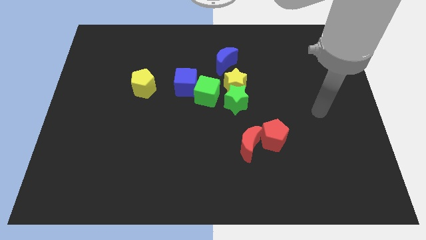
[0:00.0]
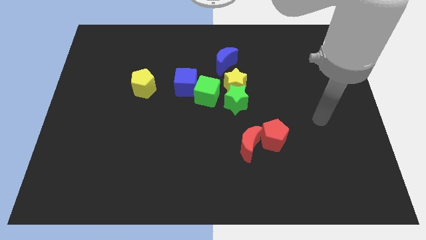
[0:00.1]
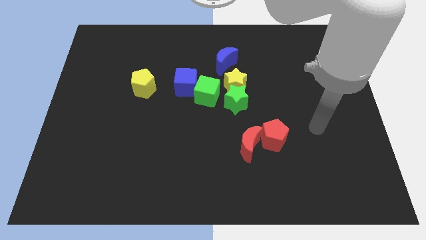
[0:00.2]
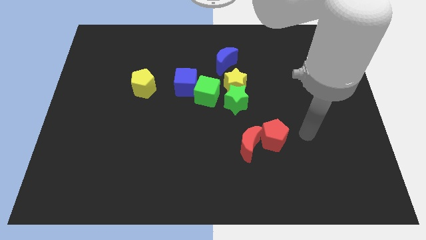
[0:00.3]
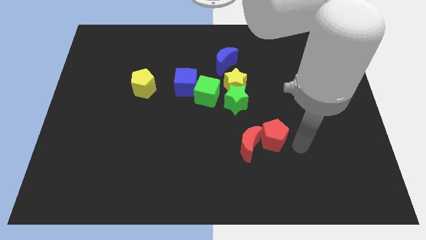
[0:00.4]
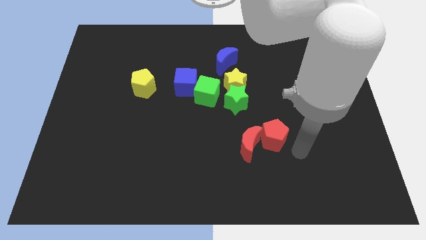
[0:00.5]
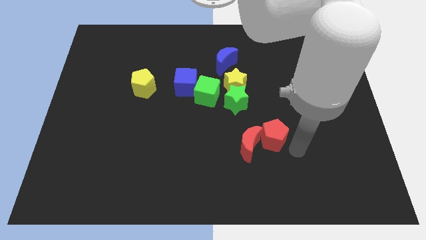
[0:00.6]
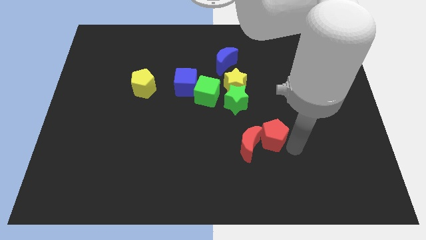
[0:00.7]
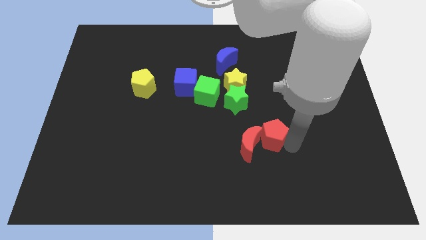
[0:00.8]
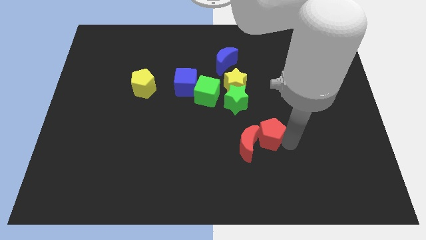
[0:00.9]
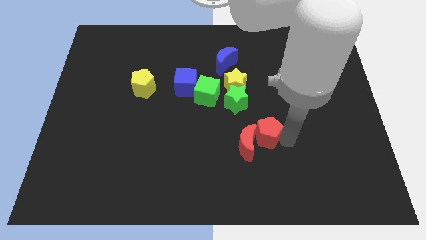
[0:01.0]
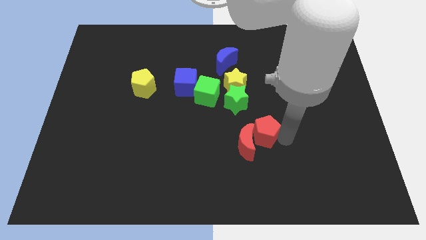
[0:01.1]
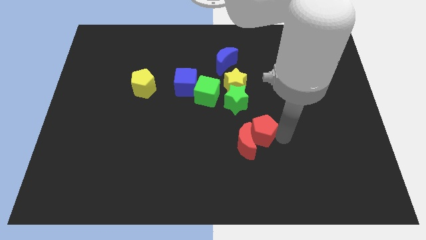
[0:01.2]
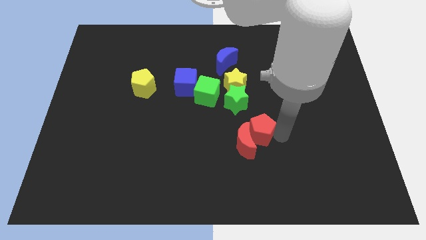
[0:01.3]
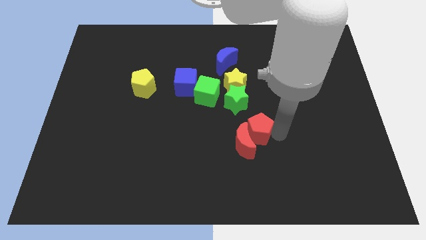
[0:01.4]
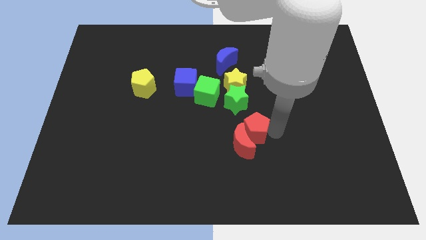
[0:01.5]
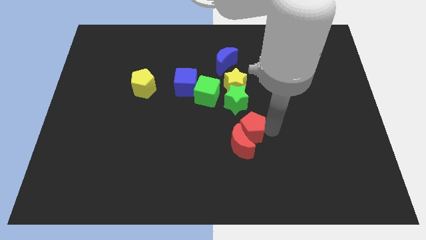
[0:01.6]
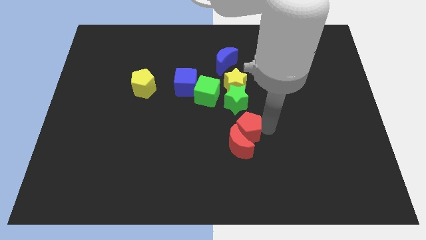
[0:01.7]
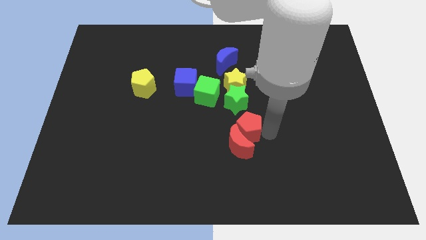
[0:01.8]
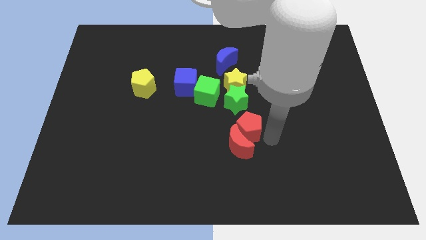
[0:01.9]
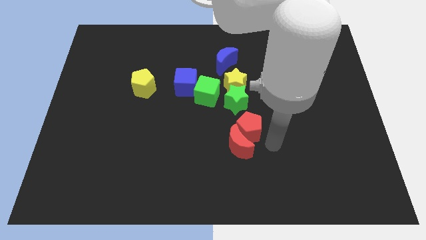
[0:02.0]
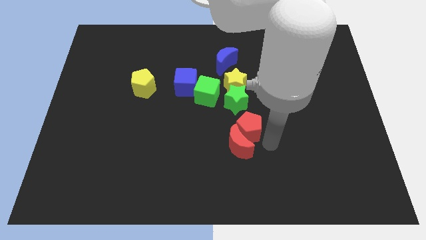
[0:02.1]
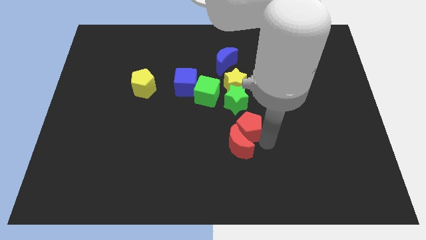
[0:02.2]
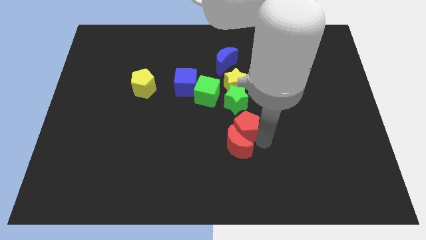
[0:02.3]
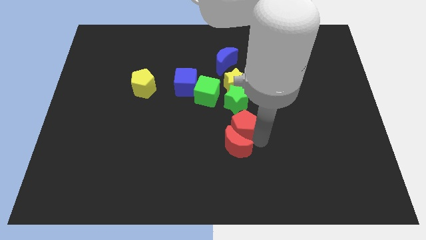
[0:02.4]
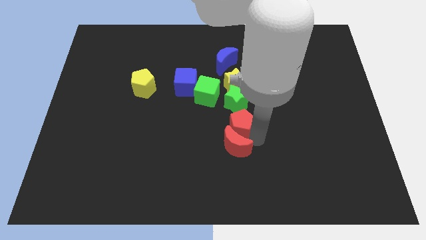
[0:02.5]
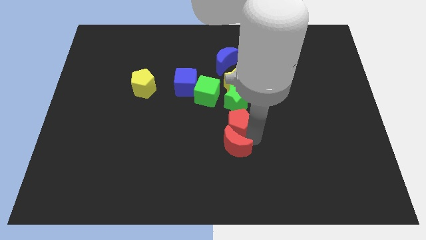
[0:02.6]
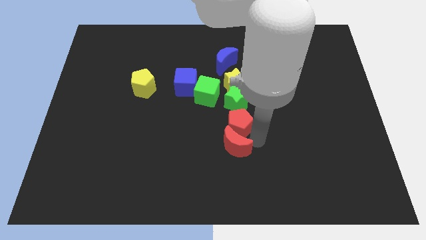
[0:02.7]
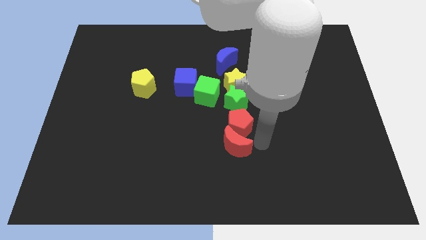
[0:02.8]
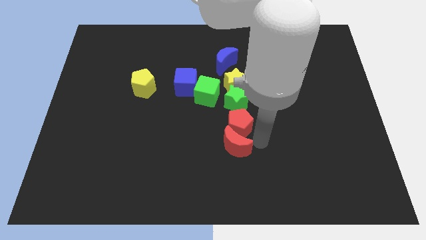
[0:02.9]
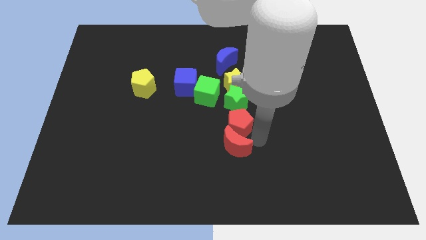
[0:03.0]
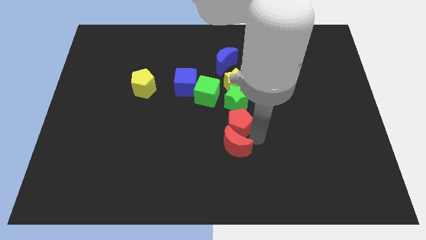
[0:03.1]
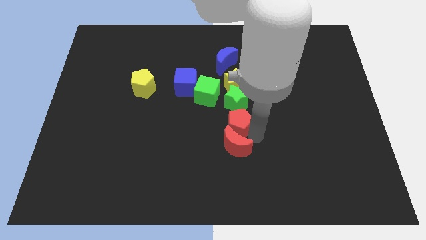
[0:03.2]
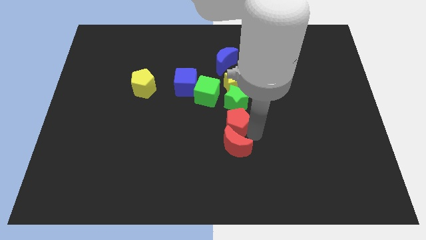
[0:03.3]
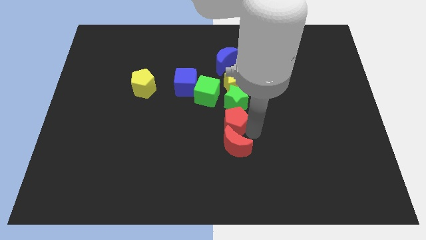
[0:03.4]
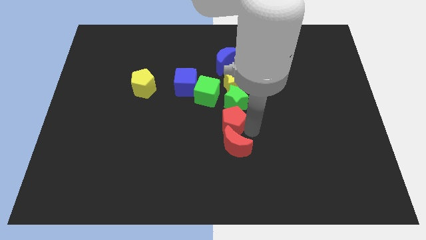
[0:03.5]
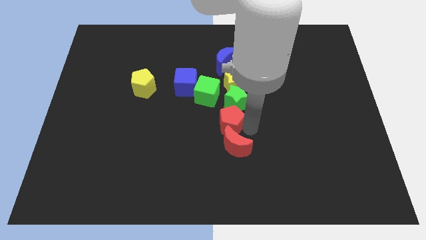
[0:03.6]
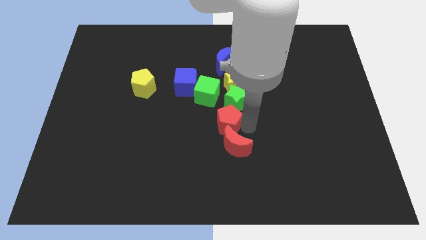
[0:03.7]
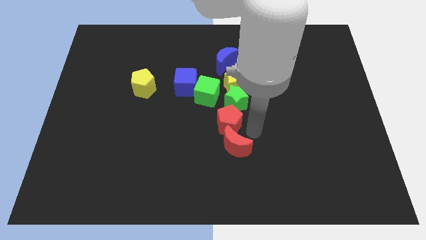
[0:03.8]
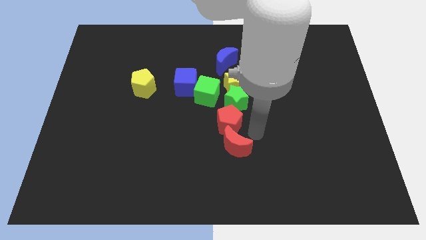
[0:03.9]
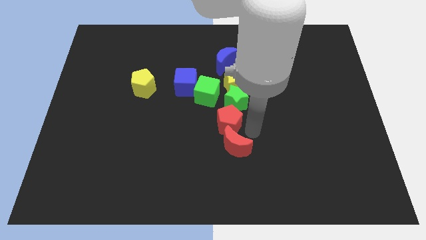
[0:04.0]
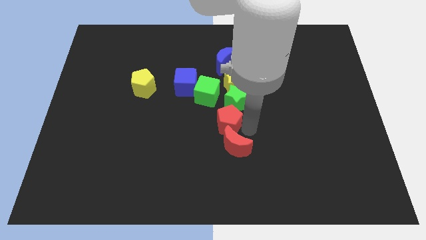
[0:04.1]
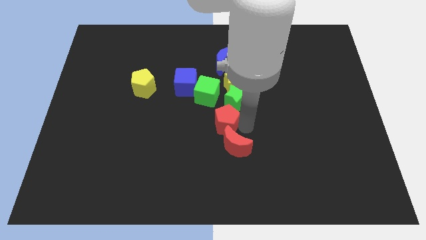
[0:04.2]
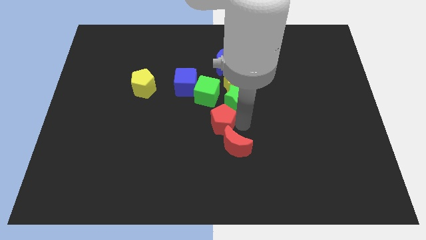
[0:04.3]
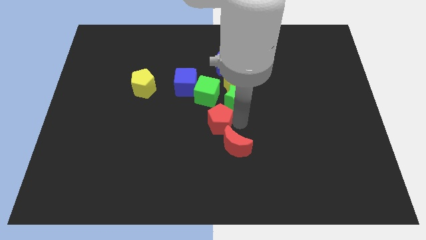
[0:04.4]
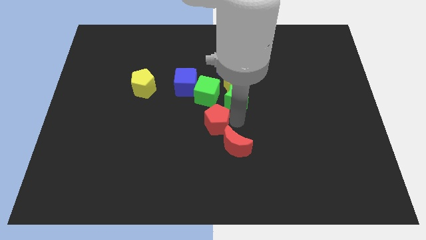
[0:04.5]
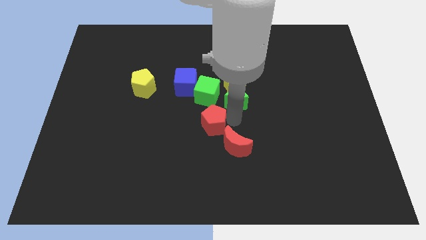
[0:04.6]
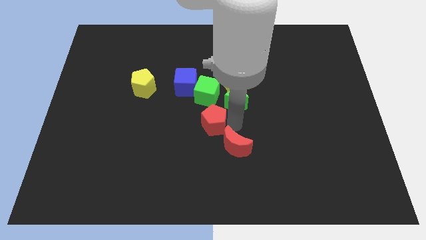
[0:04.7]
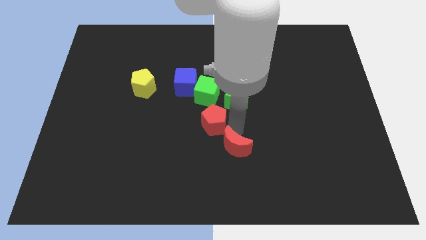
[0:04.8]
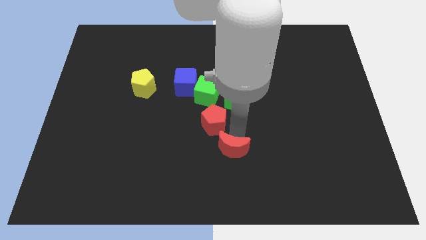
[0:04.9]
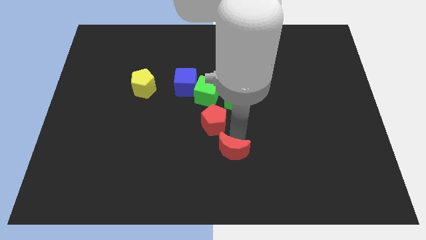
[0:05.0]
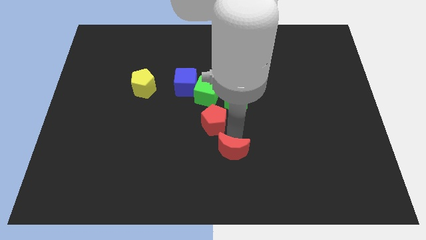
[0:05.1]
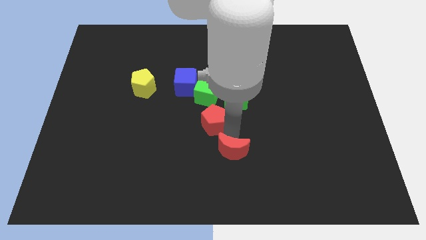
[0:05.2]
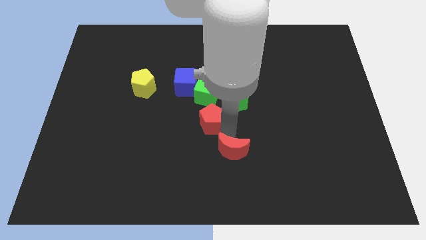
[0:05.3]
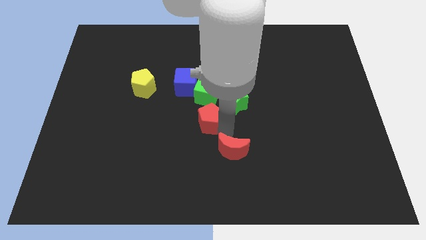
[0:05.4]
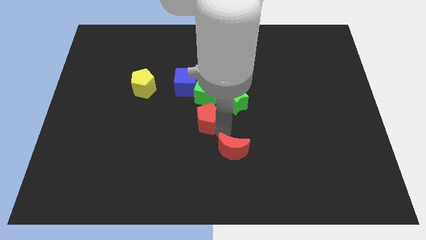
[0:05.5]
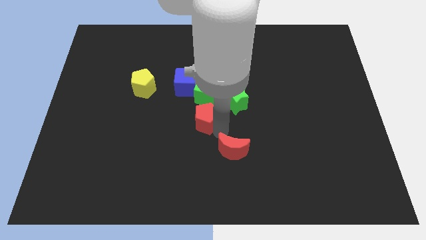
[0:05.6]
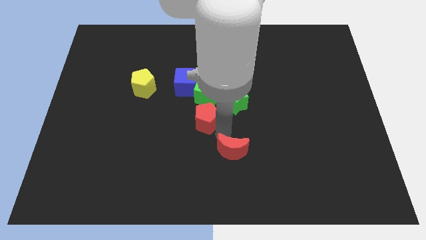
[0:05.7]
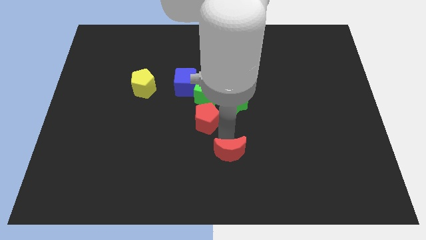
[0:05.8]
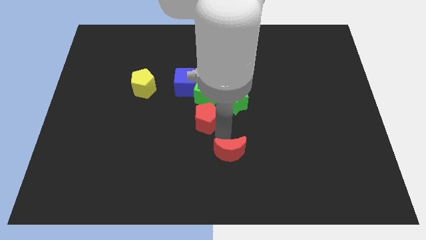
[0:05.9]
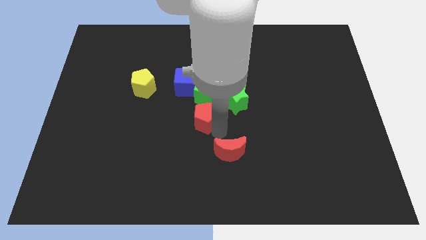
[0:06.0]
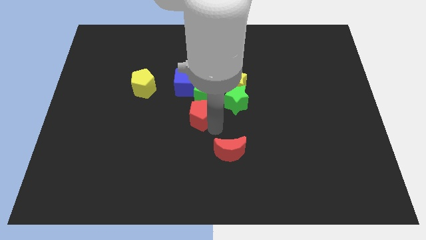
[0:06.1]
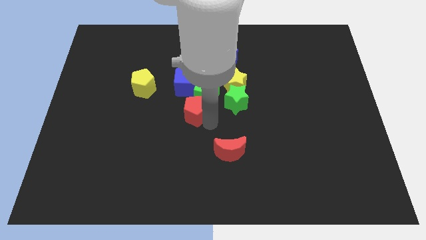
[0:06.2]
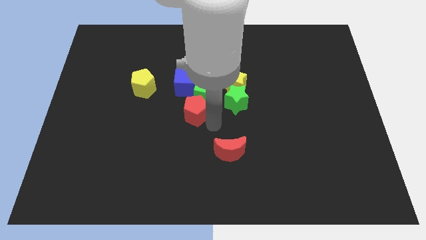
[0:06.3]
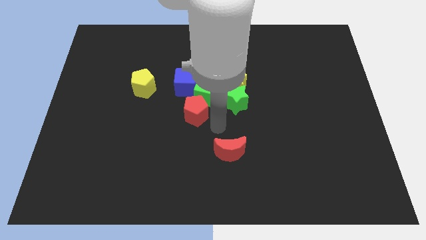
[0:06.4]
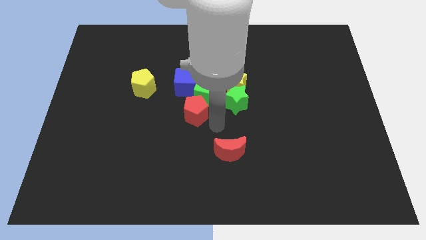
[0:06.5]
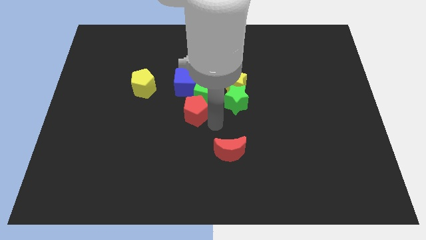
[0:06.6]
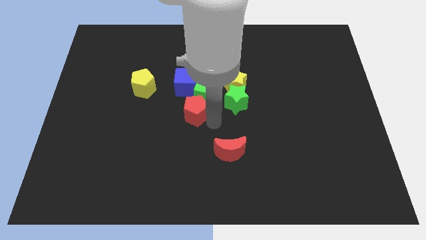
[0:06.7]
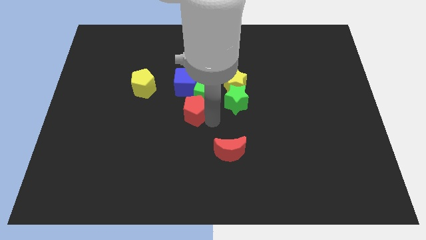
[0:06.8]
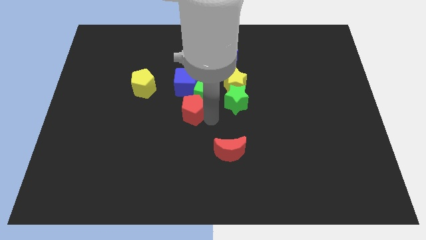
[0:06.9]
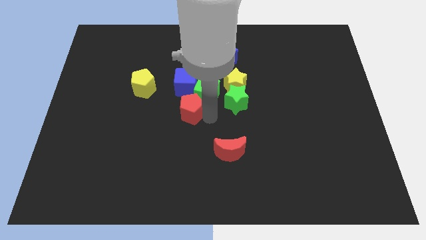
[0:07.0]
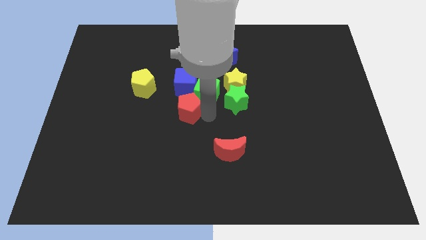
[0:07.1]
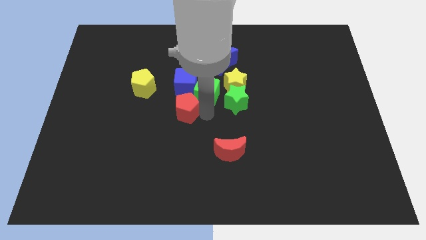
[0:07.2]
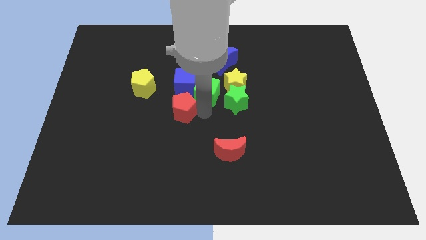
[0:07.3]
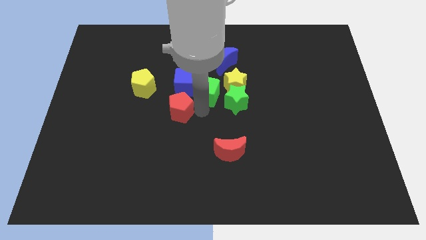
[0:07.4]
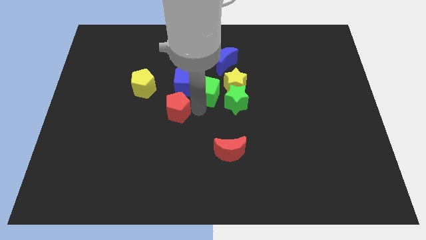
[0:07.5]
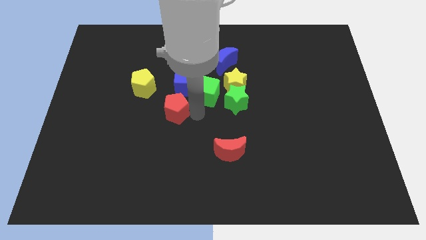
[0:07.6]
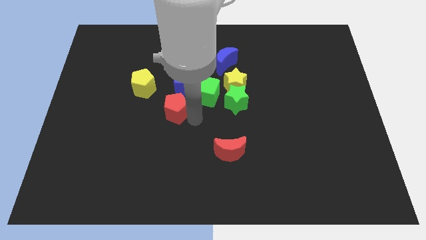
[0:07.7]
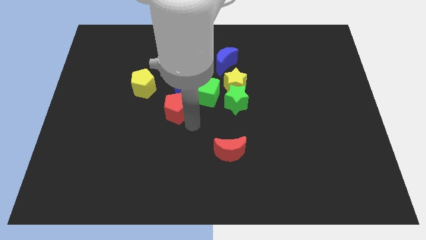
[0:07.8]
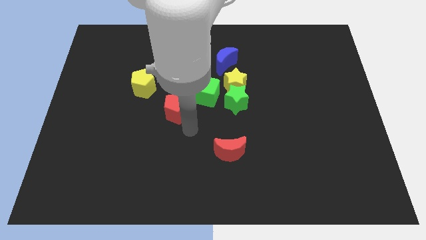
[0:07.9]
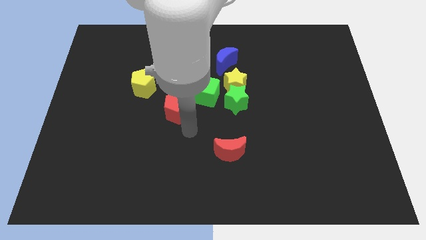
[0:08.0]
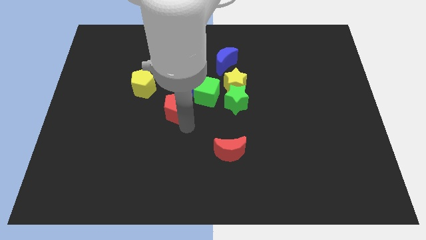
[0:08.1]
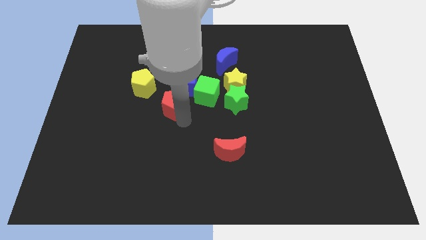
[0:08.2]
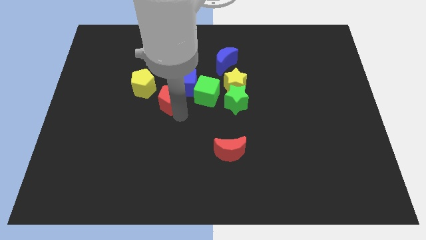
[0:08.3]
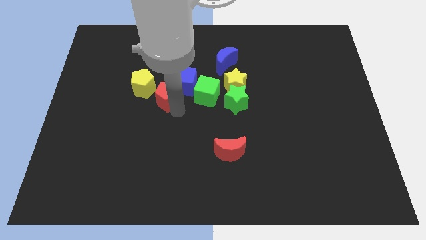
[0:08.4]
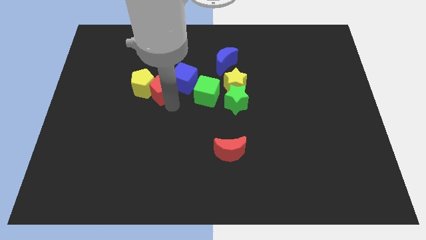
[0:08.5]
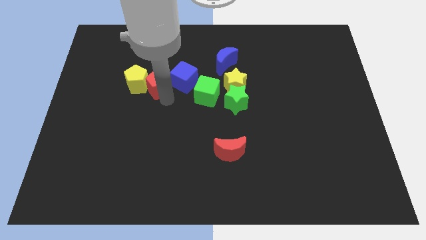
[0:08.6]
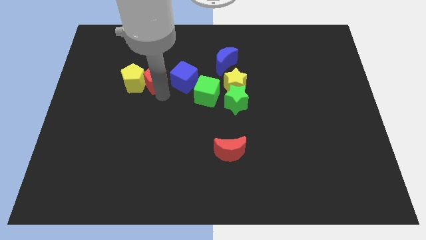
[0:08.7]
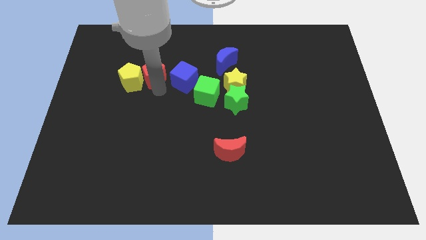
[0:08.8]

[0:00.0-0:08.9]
put the red pentagon to the top left of the blue cube
